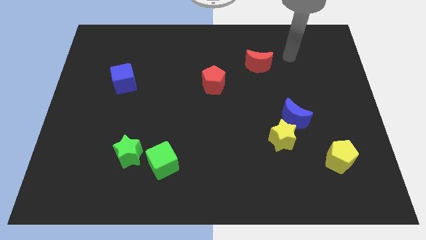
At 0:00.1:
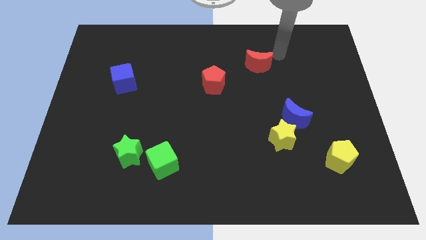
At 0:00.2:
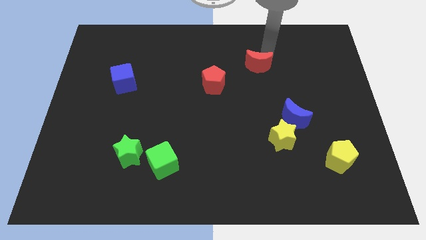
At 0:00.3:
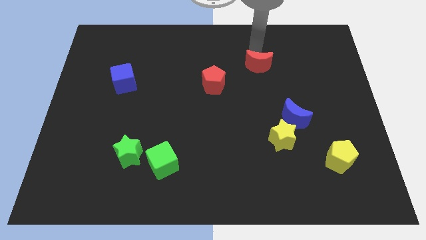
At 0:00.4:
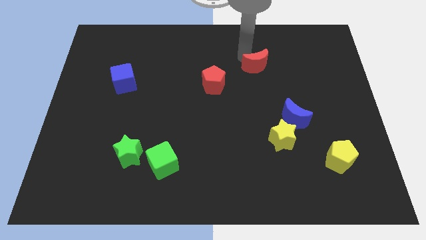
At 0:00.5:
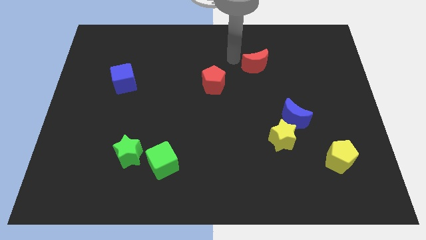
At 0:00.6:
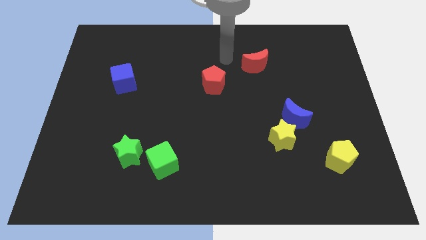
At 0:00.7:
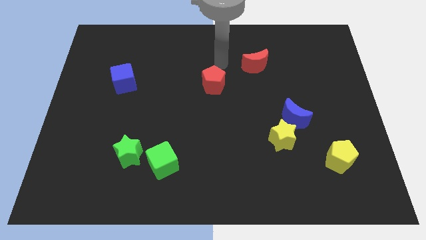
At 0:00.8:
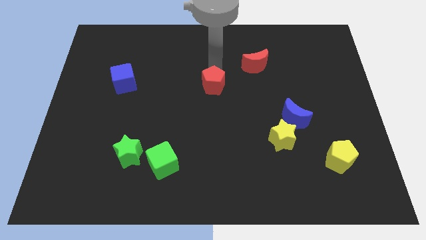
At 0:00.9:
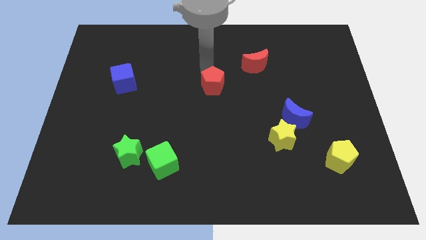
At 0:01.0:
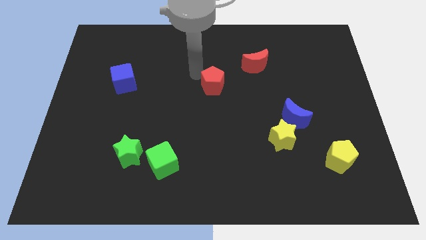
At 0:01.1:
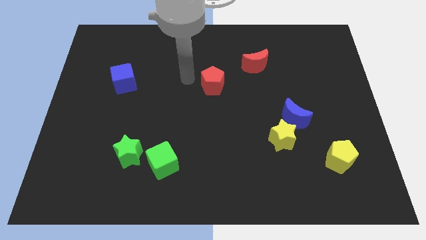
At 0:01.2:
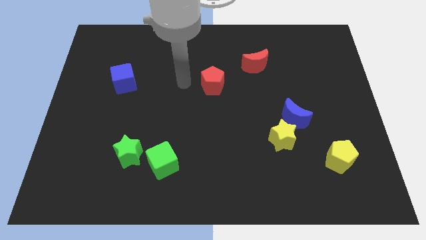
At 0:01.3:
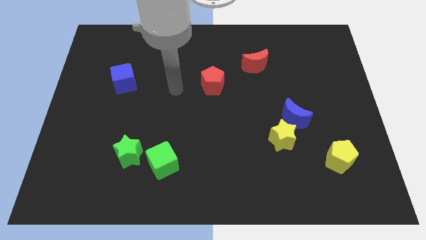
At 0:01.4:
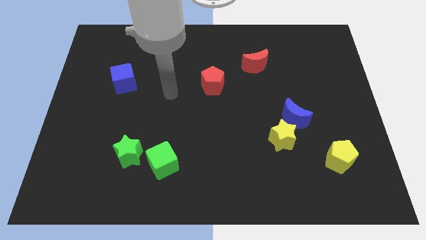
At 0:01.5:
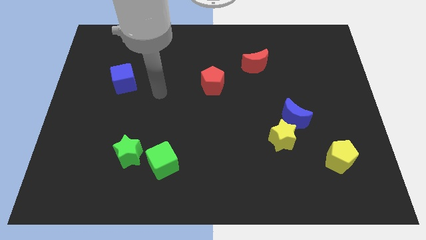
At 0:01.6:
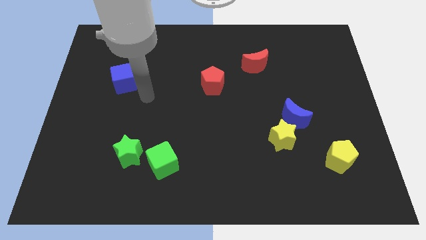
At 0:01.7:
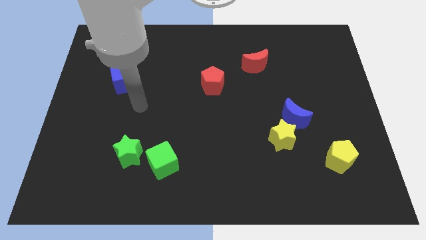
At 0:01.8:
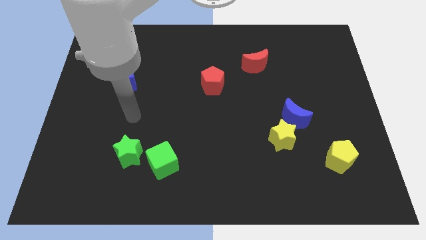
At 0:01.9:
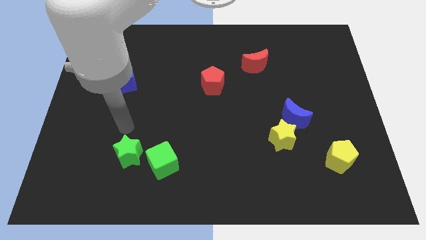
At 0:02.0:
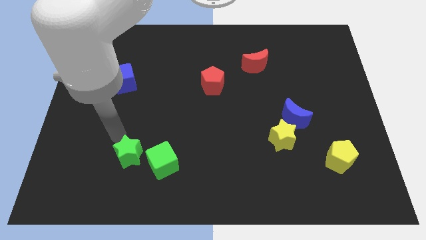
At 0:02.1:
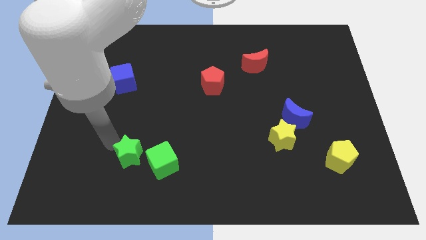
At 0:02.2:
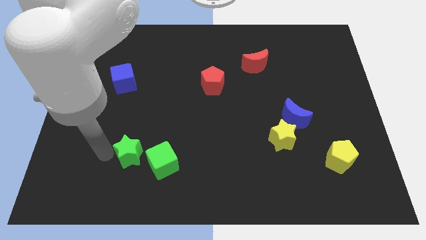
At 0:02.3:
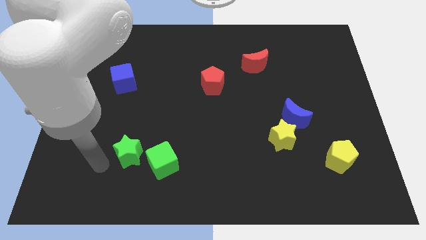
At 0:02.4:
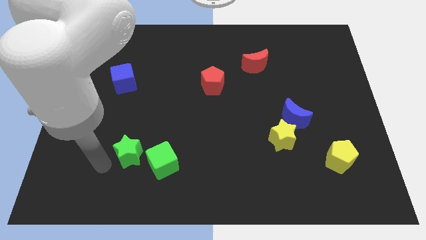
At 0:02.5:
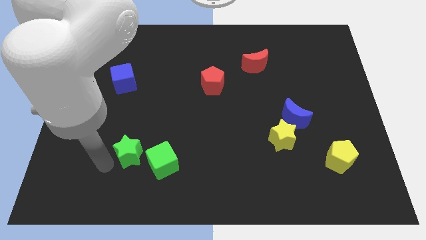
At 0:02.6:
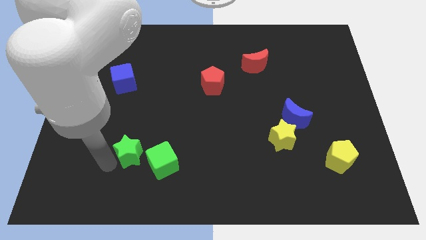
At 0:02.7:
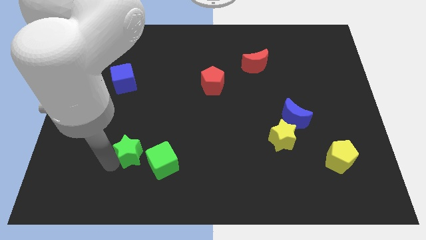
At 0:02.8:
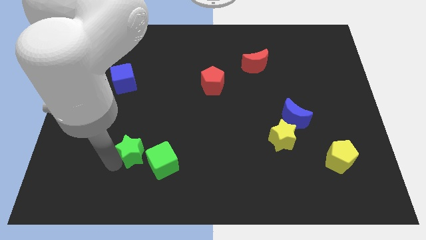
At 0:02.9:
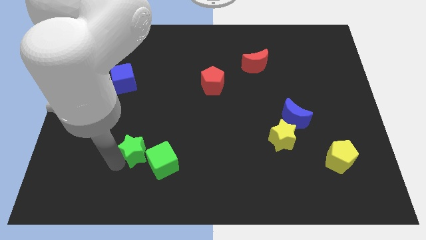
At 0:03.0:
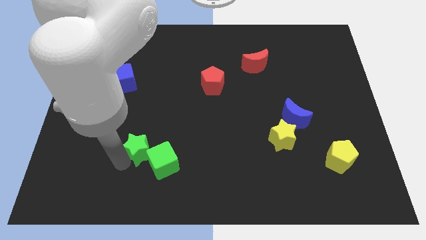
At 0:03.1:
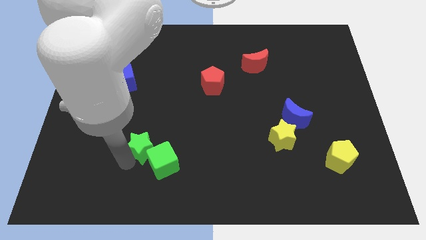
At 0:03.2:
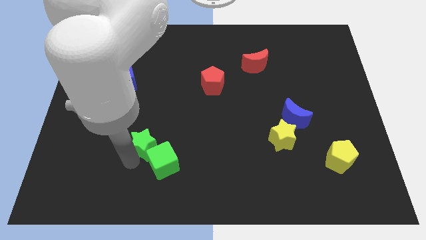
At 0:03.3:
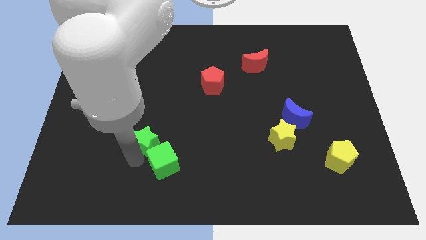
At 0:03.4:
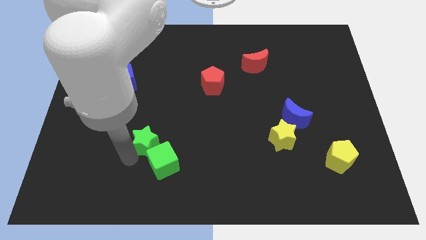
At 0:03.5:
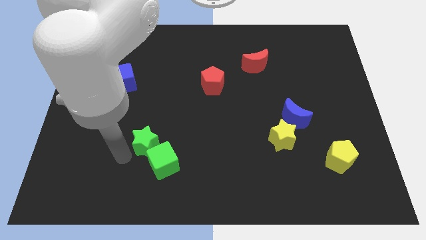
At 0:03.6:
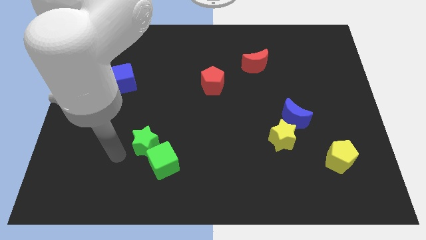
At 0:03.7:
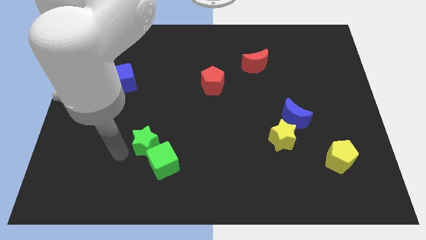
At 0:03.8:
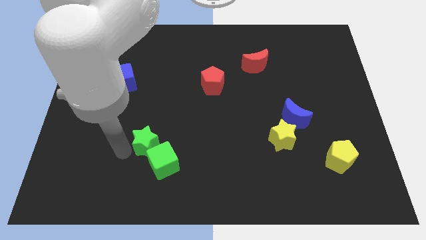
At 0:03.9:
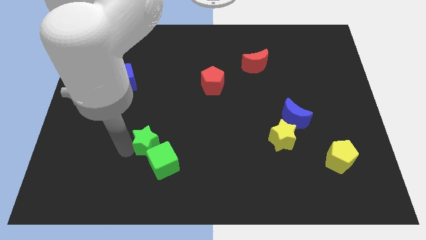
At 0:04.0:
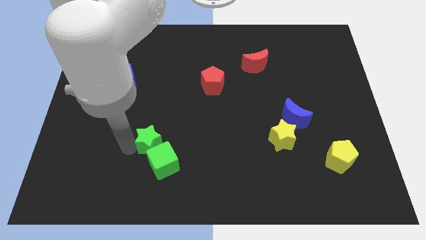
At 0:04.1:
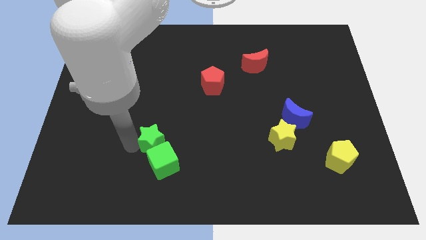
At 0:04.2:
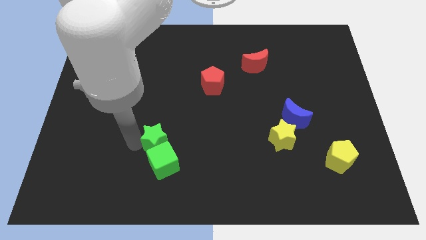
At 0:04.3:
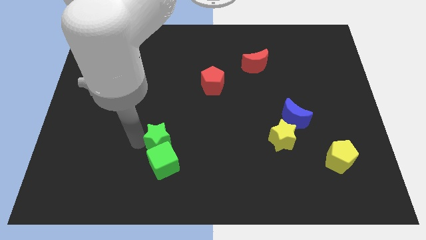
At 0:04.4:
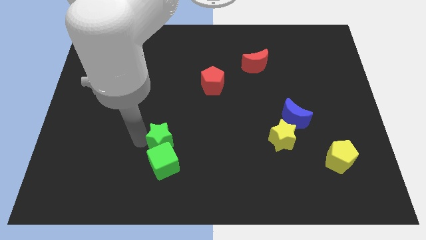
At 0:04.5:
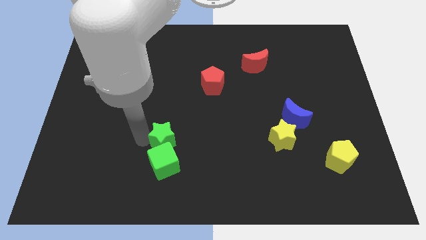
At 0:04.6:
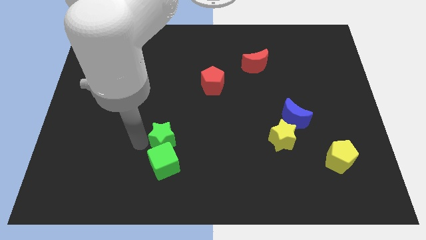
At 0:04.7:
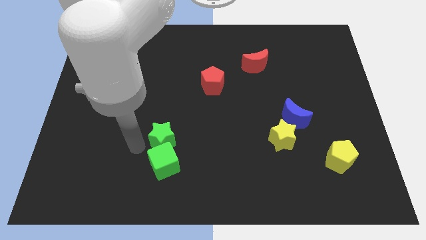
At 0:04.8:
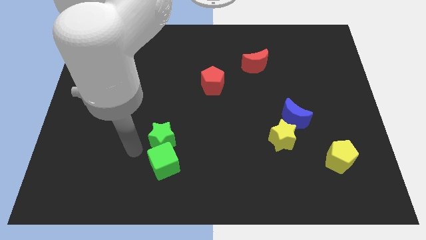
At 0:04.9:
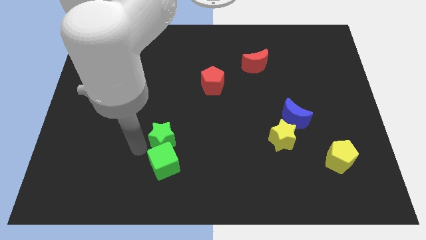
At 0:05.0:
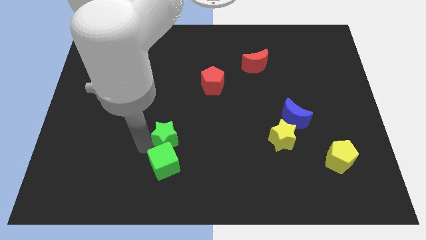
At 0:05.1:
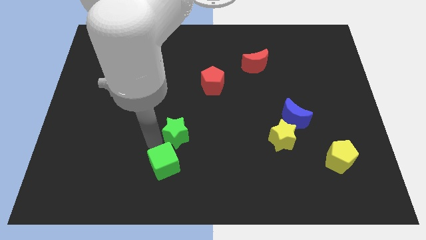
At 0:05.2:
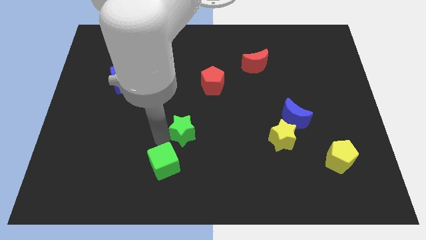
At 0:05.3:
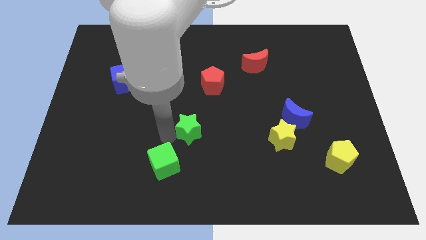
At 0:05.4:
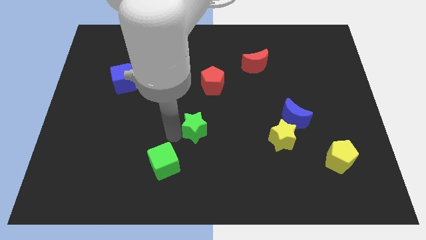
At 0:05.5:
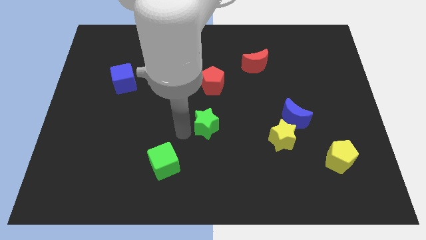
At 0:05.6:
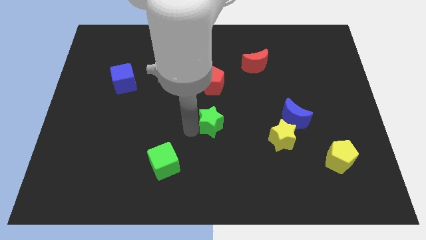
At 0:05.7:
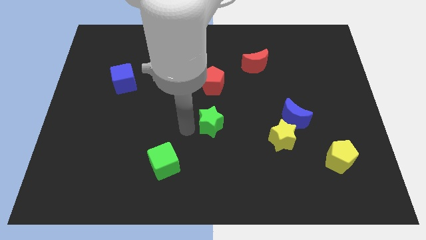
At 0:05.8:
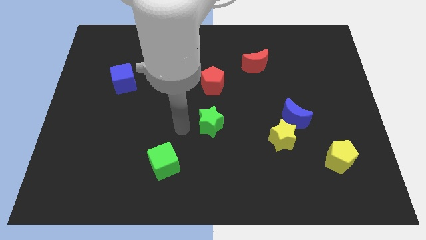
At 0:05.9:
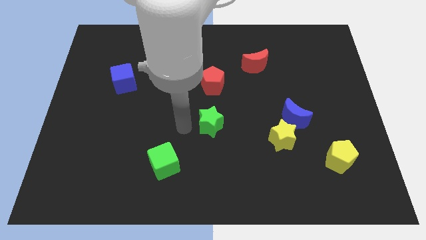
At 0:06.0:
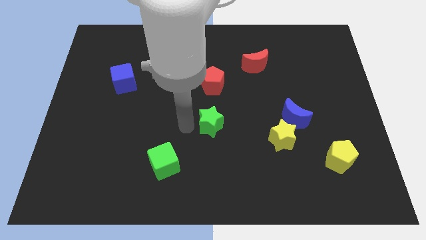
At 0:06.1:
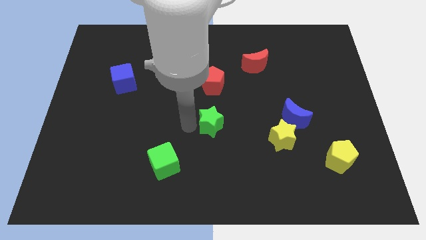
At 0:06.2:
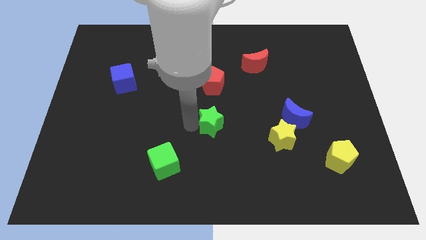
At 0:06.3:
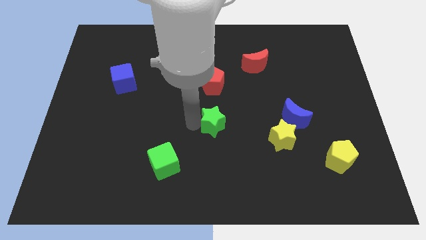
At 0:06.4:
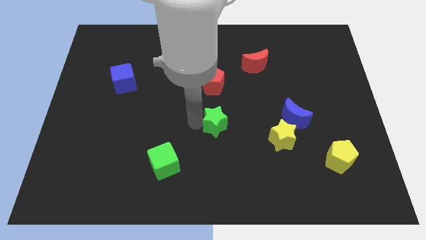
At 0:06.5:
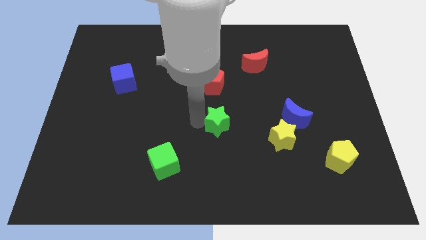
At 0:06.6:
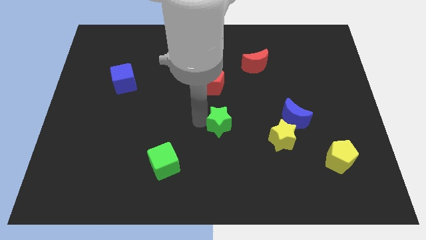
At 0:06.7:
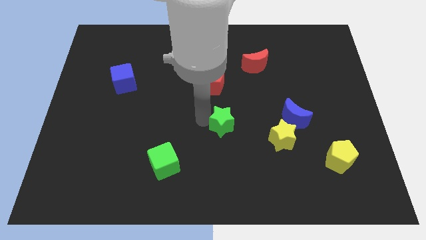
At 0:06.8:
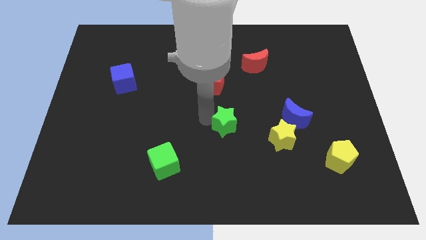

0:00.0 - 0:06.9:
put the green star just left of the blue moon
